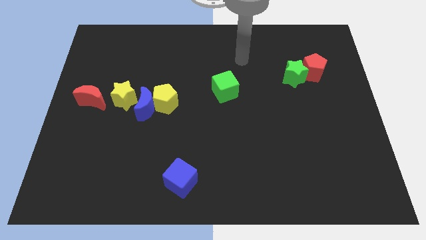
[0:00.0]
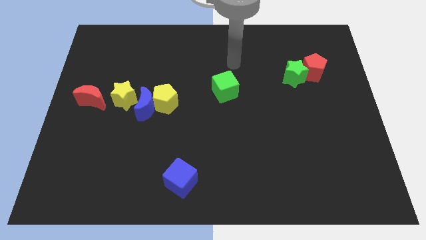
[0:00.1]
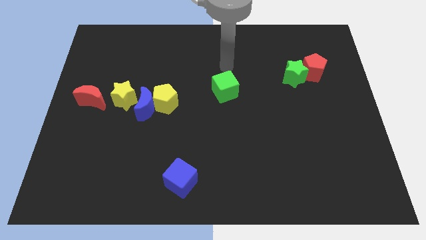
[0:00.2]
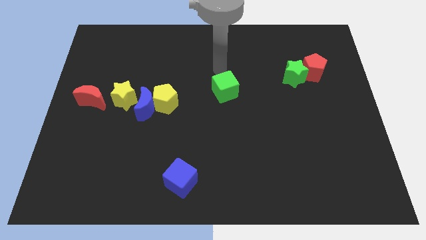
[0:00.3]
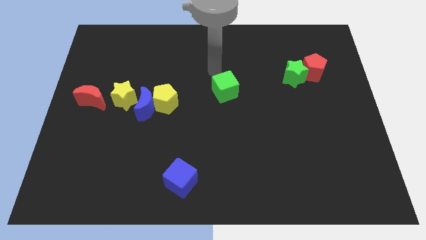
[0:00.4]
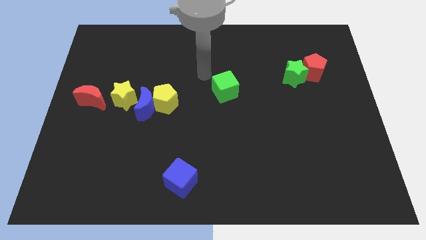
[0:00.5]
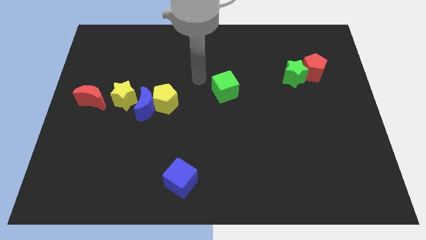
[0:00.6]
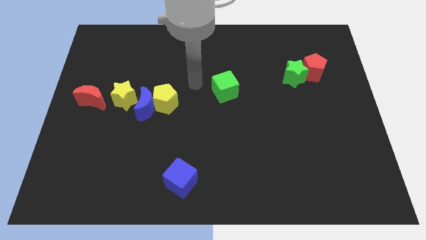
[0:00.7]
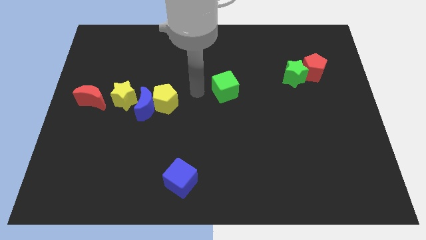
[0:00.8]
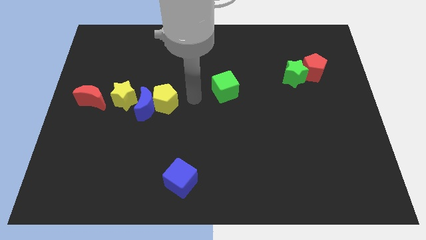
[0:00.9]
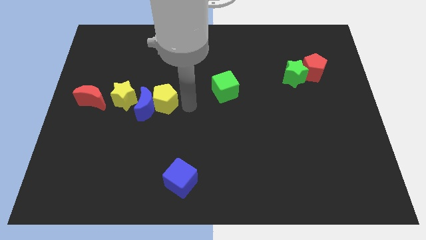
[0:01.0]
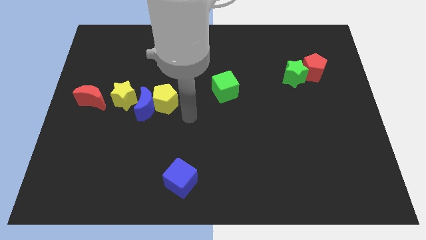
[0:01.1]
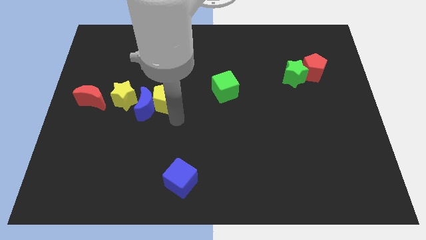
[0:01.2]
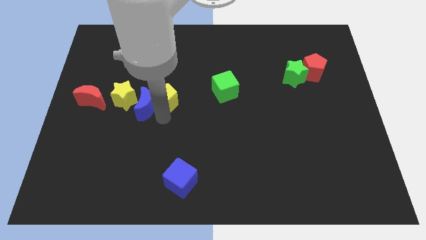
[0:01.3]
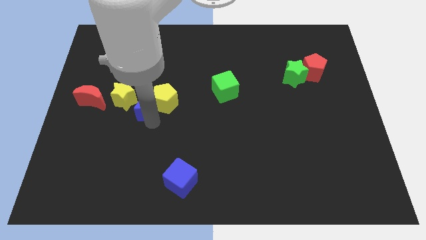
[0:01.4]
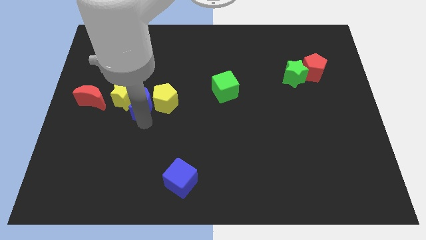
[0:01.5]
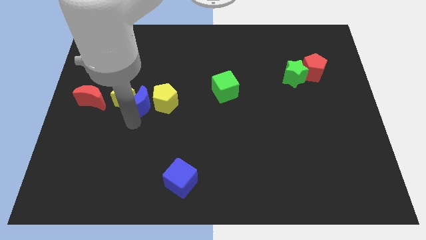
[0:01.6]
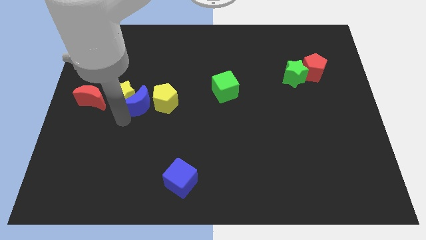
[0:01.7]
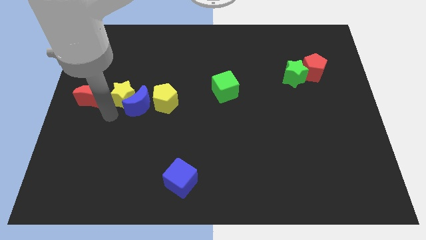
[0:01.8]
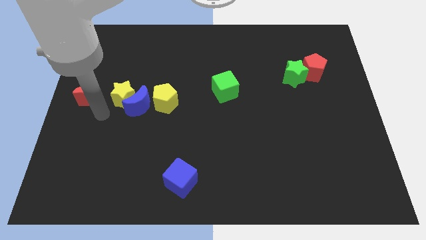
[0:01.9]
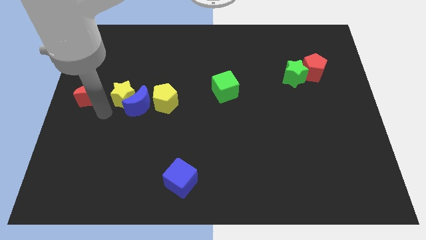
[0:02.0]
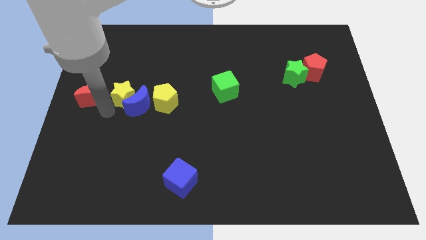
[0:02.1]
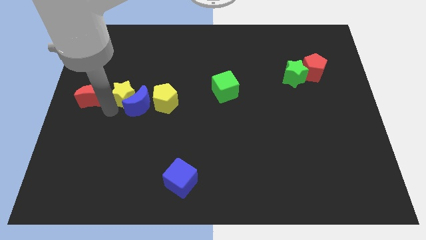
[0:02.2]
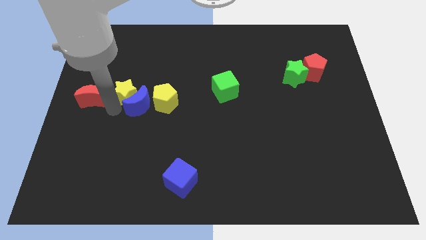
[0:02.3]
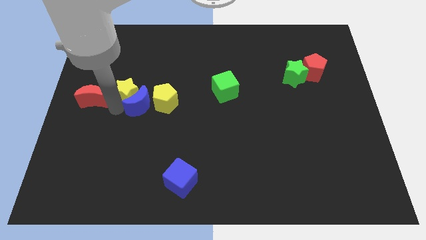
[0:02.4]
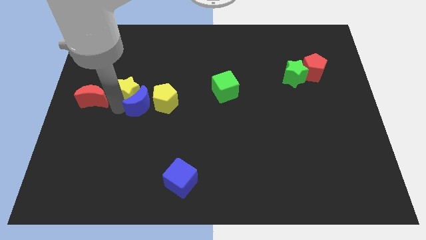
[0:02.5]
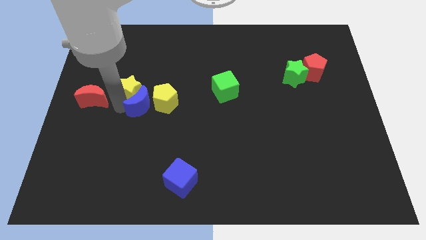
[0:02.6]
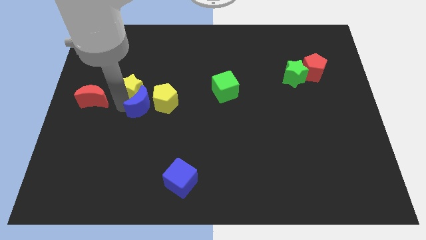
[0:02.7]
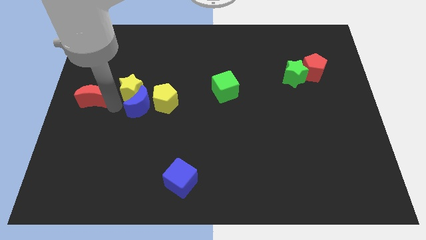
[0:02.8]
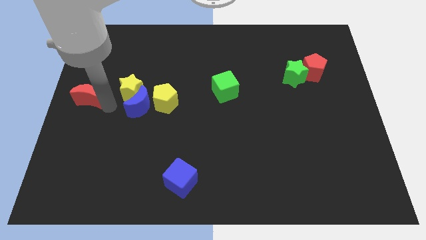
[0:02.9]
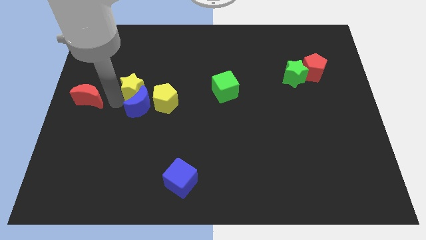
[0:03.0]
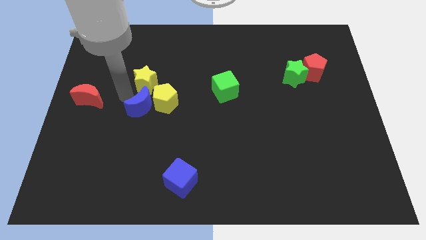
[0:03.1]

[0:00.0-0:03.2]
slightly move the yellow star diagonally up and right

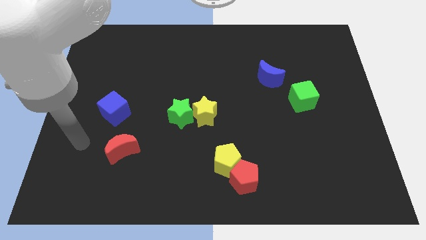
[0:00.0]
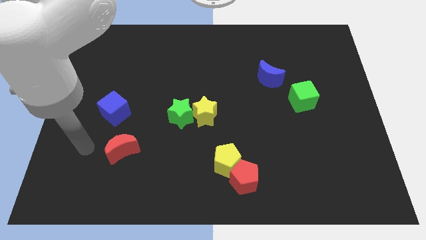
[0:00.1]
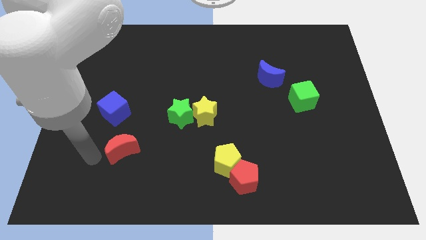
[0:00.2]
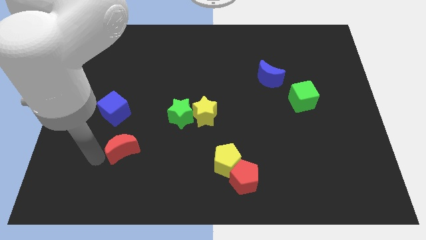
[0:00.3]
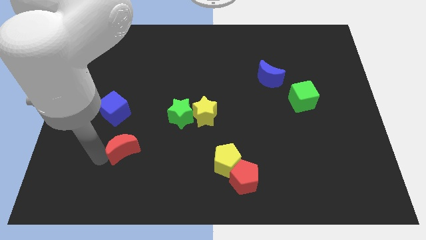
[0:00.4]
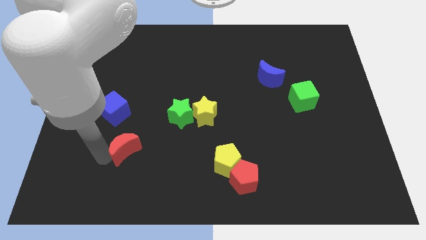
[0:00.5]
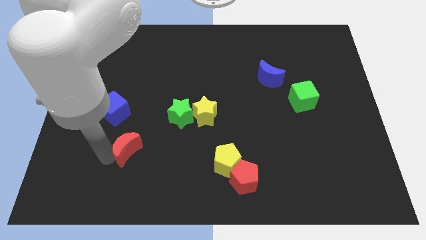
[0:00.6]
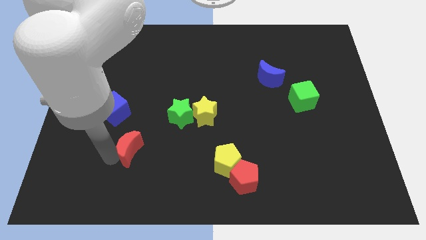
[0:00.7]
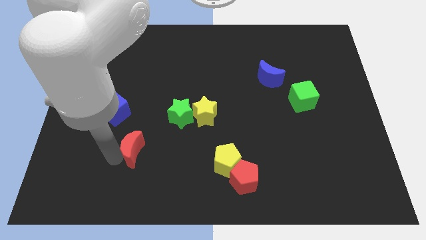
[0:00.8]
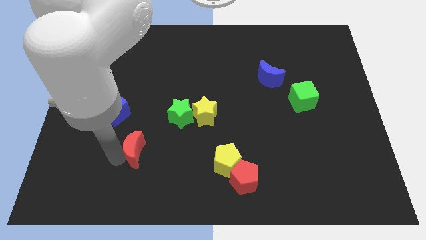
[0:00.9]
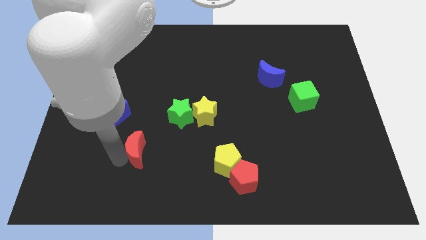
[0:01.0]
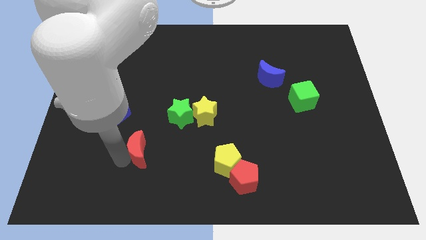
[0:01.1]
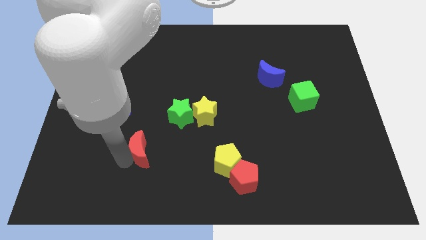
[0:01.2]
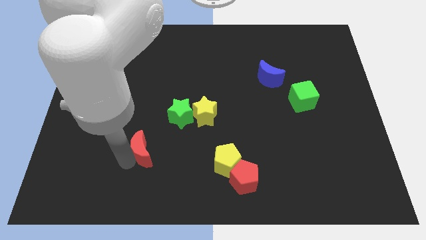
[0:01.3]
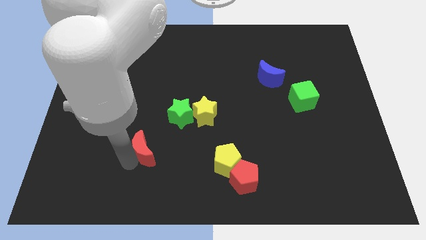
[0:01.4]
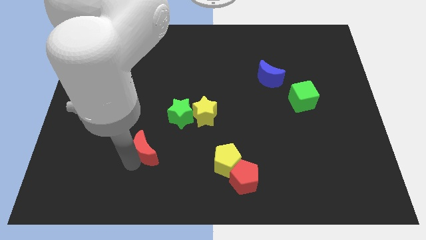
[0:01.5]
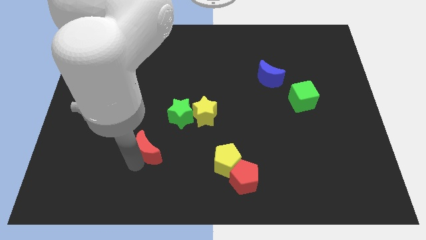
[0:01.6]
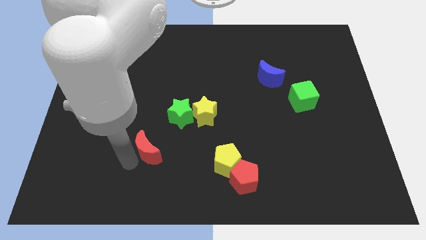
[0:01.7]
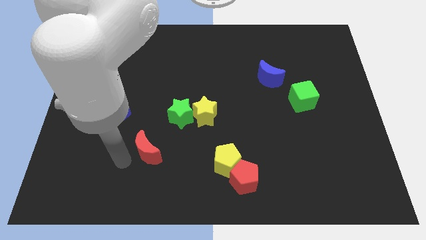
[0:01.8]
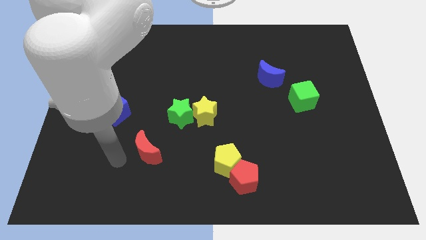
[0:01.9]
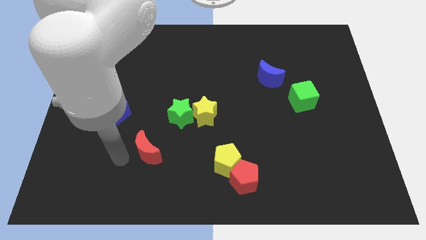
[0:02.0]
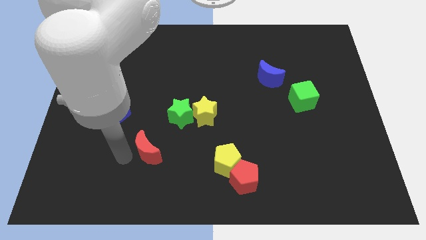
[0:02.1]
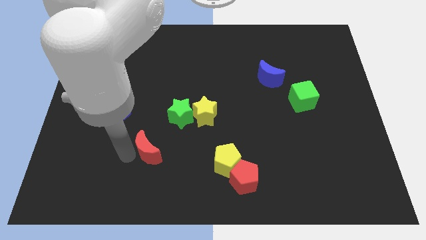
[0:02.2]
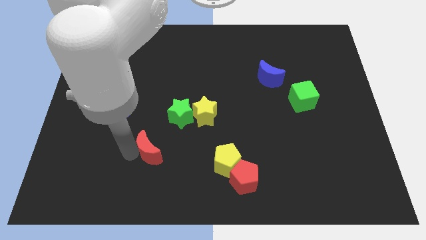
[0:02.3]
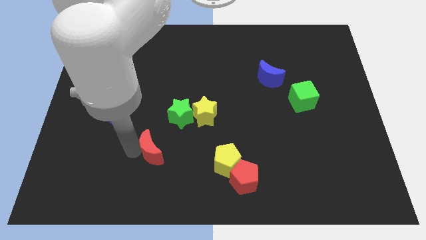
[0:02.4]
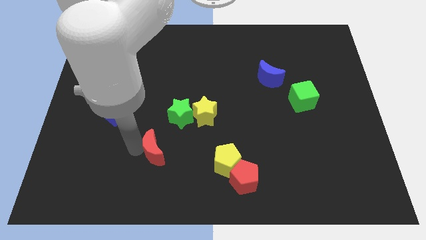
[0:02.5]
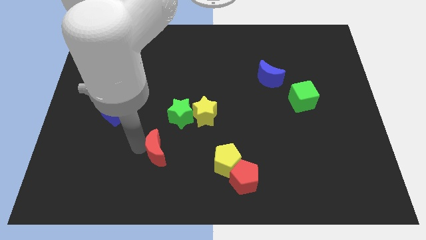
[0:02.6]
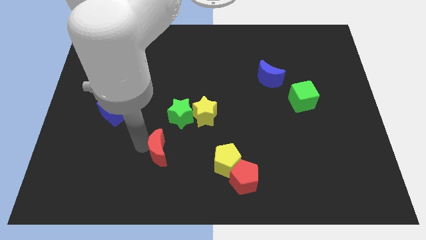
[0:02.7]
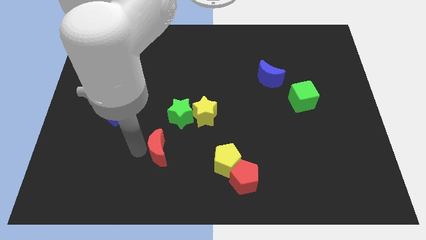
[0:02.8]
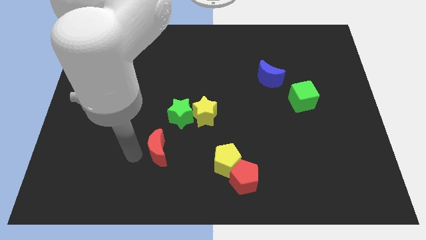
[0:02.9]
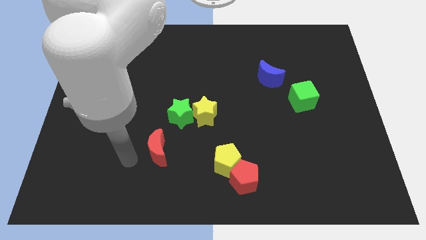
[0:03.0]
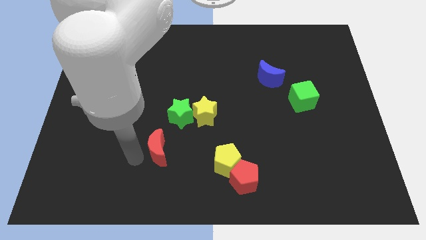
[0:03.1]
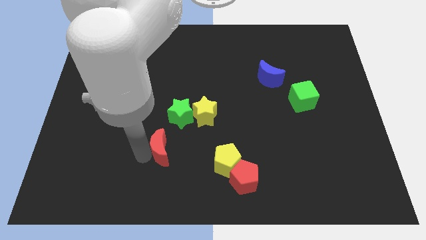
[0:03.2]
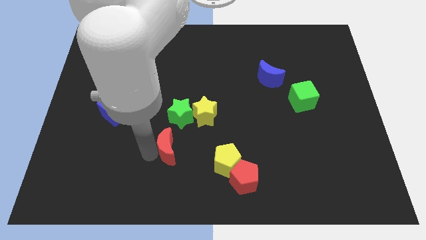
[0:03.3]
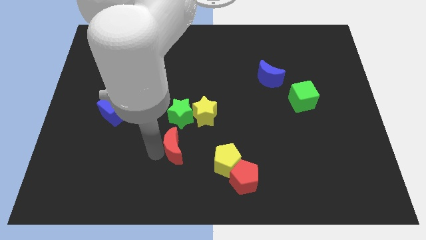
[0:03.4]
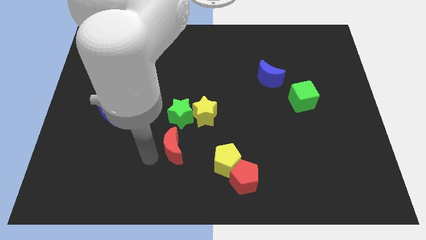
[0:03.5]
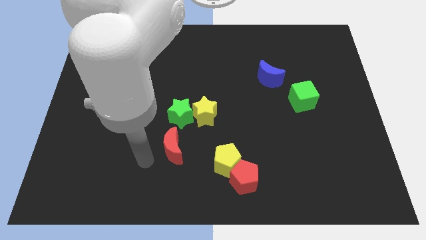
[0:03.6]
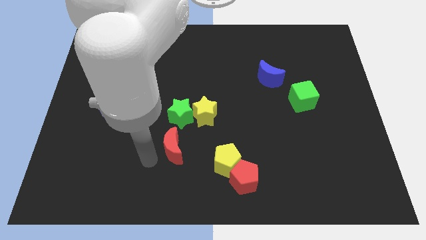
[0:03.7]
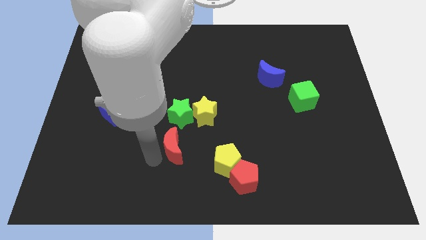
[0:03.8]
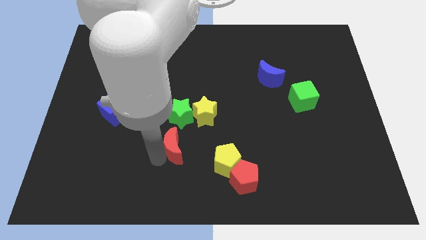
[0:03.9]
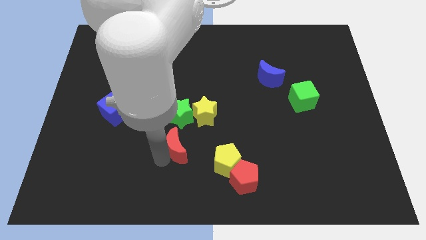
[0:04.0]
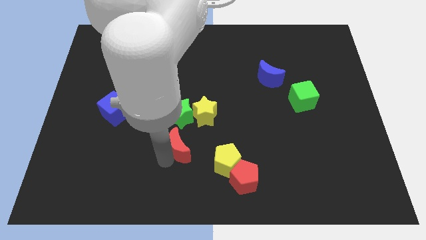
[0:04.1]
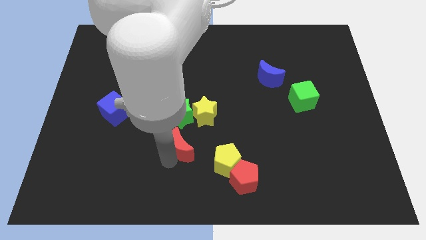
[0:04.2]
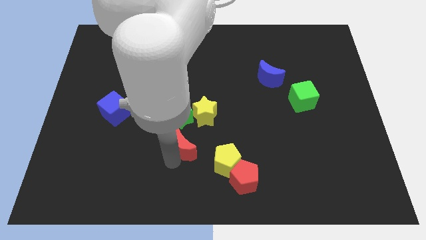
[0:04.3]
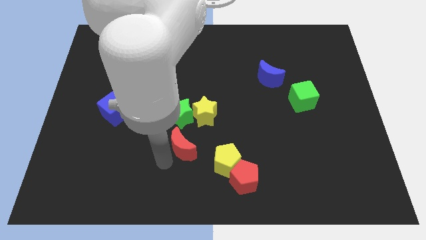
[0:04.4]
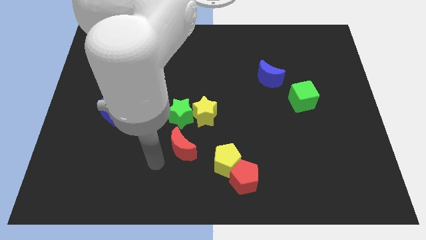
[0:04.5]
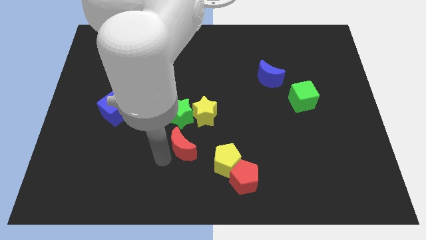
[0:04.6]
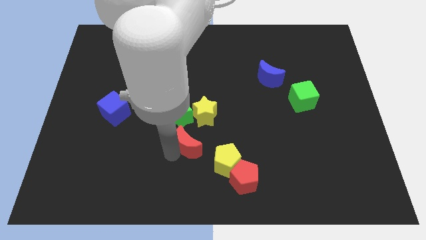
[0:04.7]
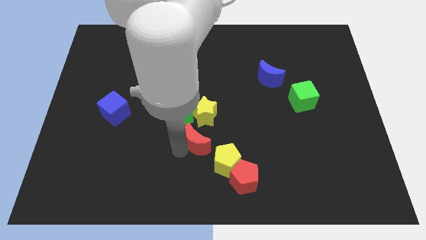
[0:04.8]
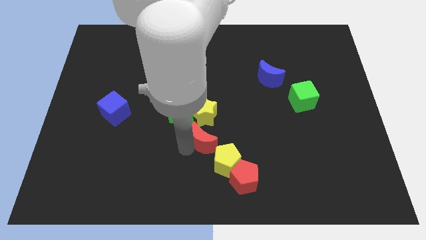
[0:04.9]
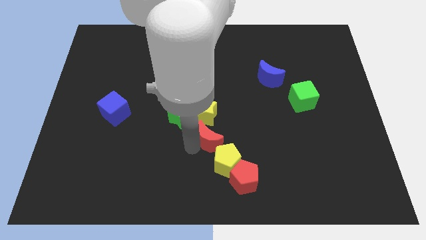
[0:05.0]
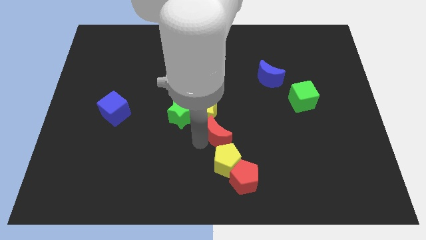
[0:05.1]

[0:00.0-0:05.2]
move the red moon right
